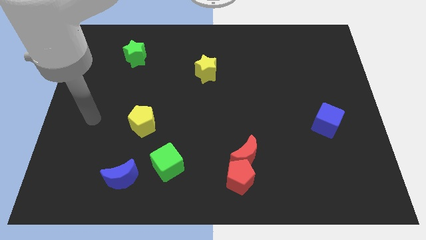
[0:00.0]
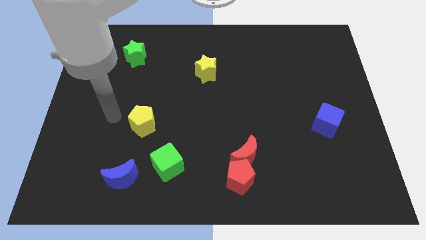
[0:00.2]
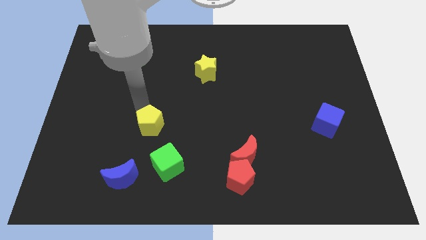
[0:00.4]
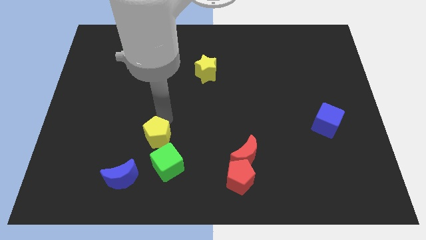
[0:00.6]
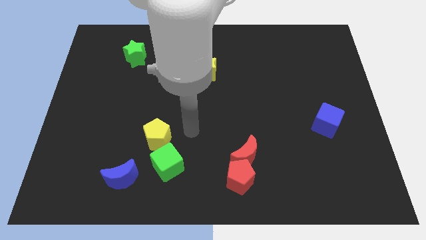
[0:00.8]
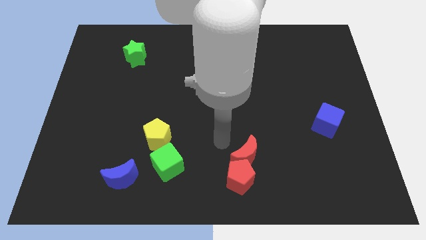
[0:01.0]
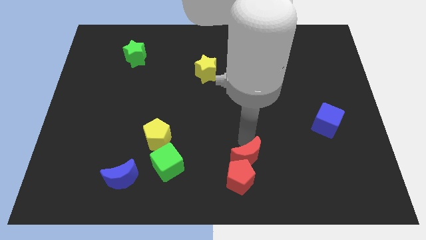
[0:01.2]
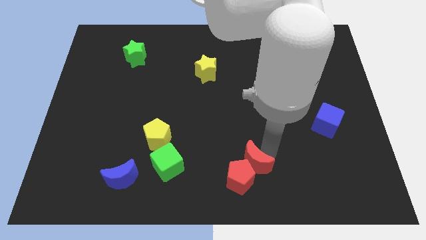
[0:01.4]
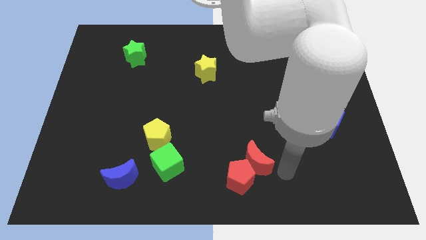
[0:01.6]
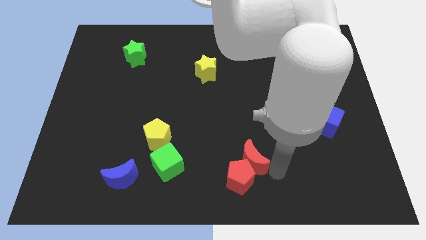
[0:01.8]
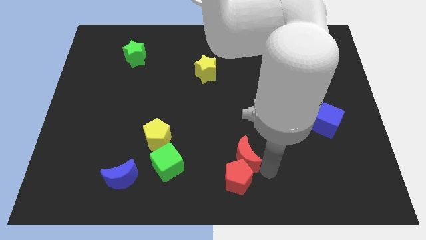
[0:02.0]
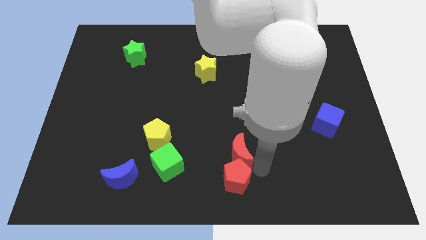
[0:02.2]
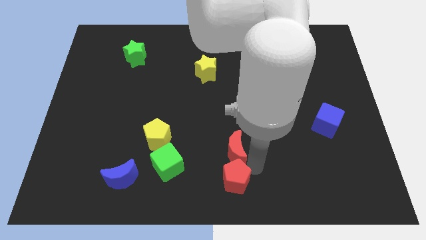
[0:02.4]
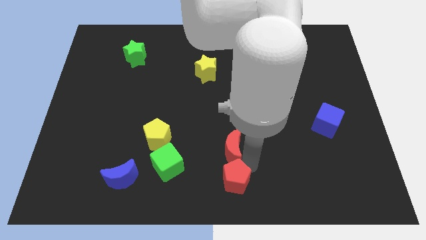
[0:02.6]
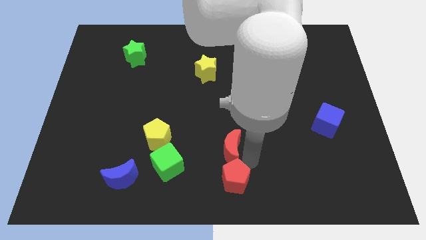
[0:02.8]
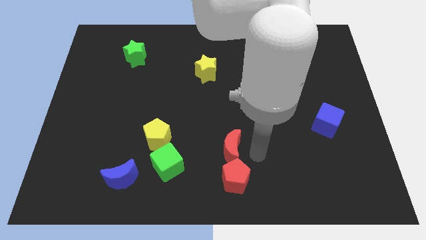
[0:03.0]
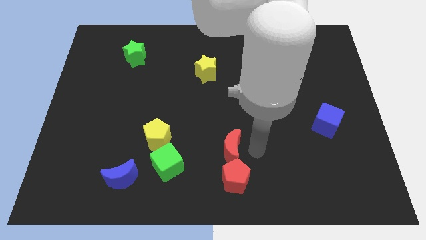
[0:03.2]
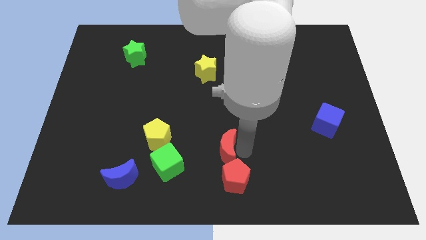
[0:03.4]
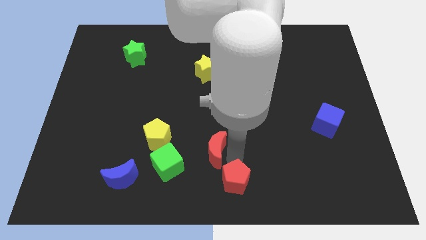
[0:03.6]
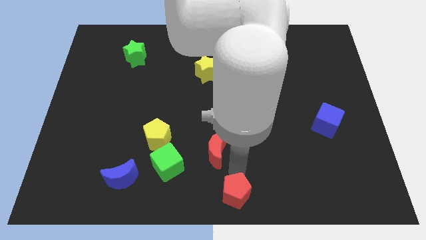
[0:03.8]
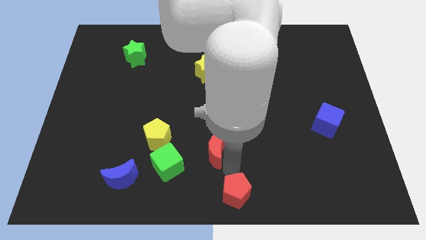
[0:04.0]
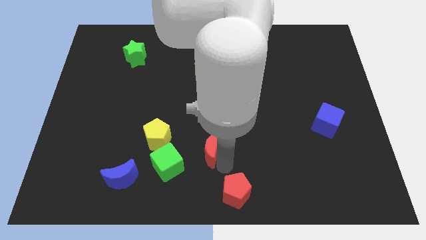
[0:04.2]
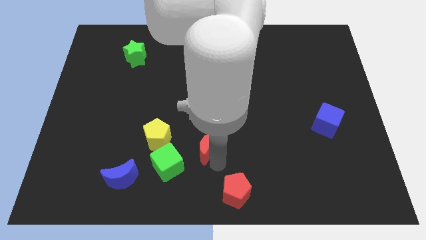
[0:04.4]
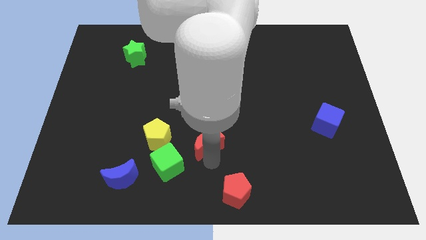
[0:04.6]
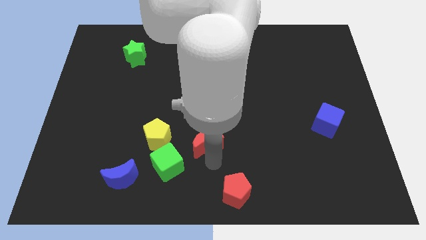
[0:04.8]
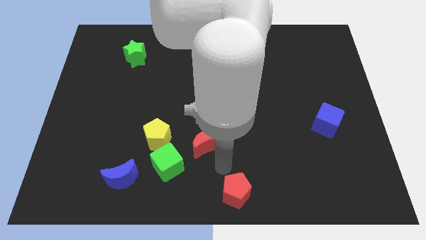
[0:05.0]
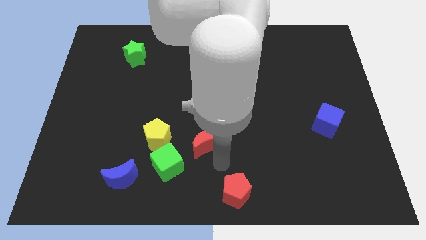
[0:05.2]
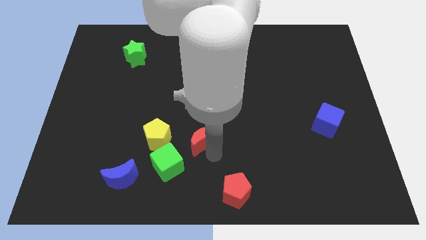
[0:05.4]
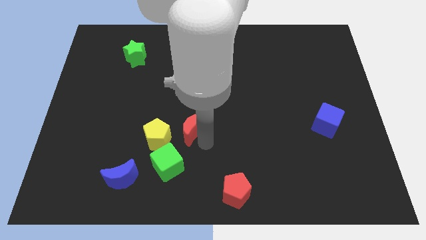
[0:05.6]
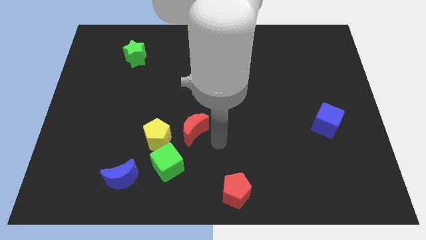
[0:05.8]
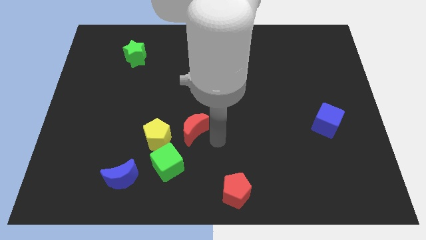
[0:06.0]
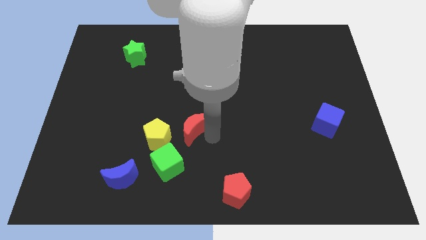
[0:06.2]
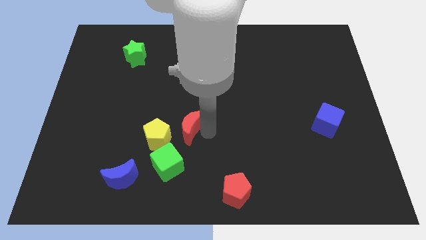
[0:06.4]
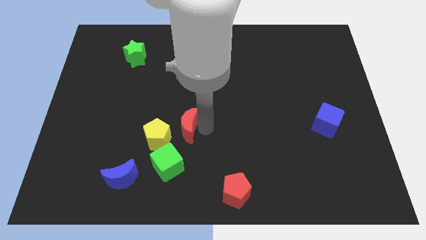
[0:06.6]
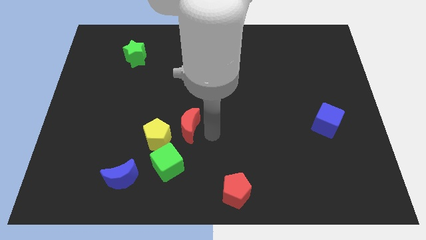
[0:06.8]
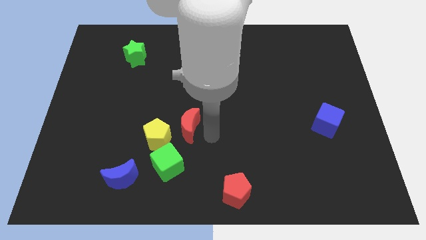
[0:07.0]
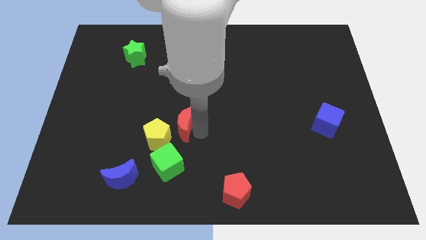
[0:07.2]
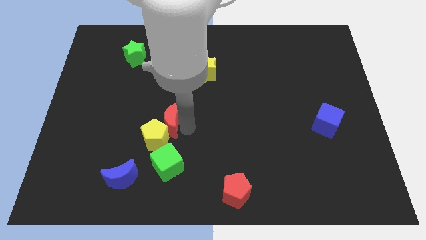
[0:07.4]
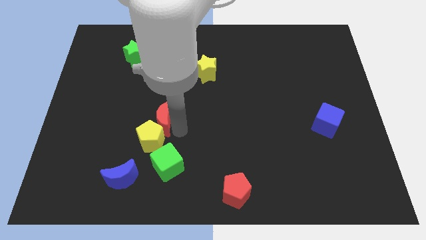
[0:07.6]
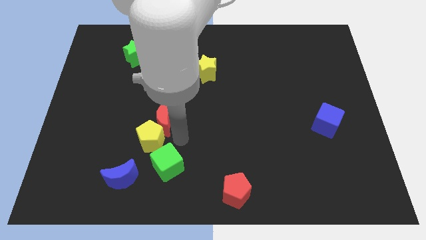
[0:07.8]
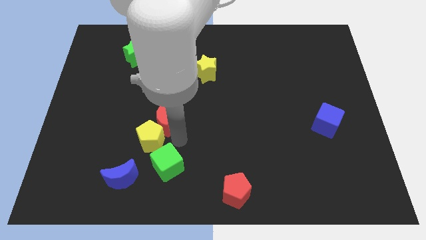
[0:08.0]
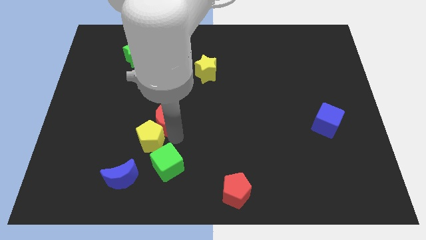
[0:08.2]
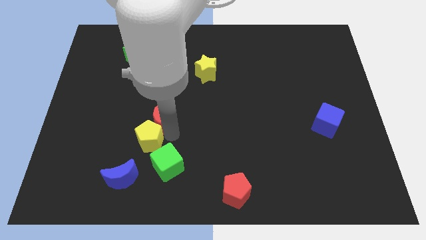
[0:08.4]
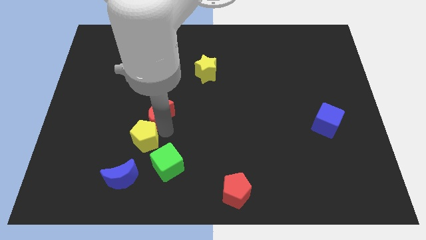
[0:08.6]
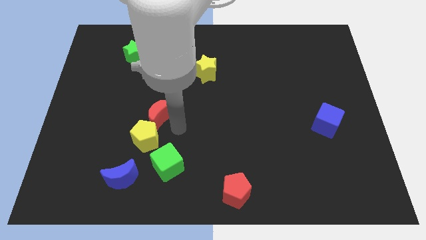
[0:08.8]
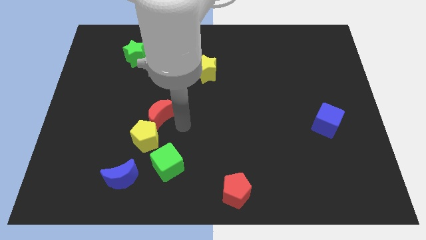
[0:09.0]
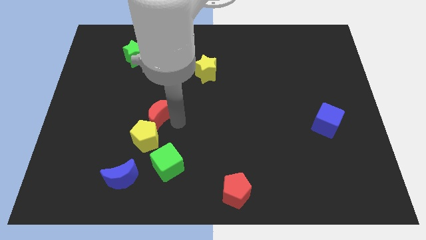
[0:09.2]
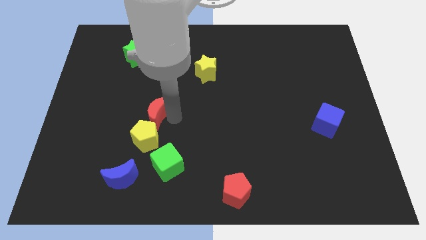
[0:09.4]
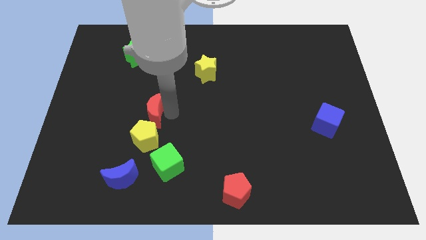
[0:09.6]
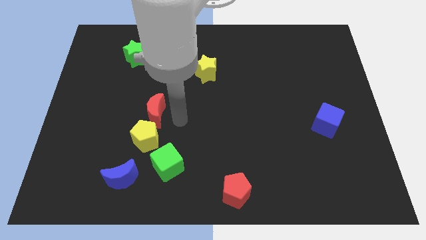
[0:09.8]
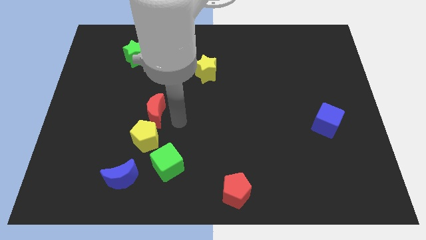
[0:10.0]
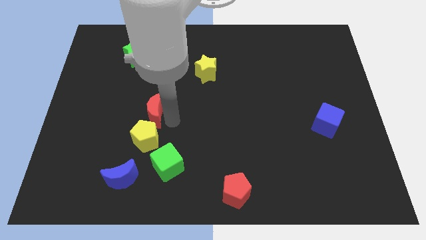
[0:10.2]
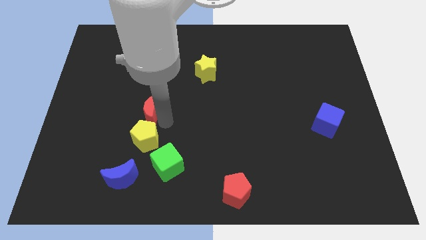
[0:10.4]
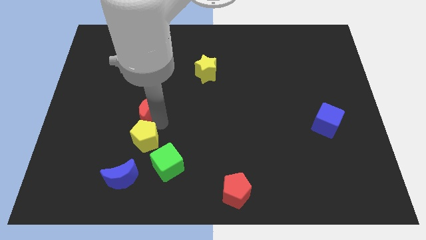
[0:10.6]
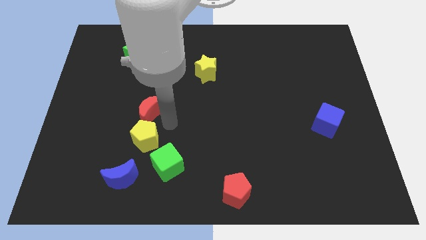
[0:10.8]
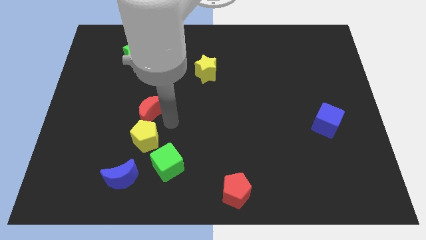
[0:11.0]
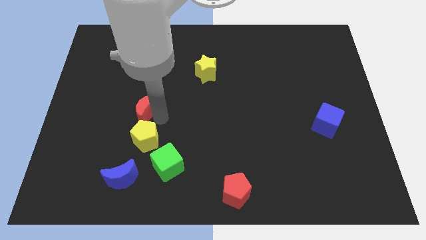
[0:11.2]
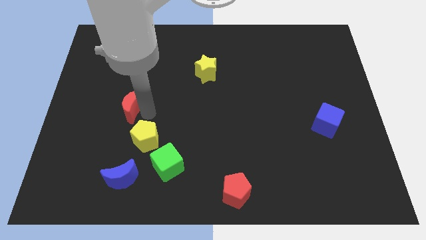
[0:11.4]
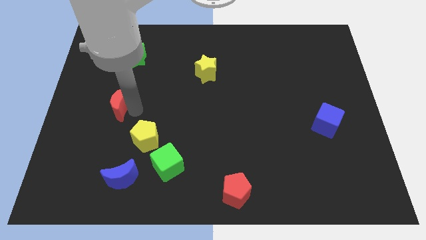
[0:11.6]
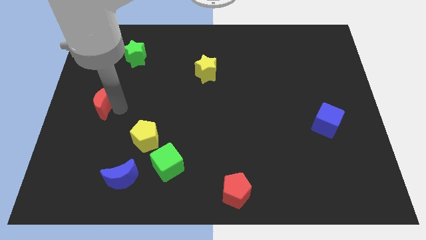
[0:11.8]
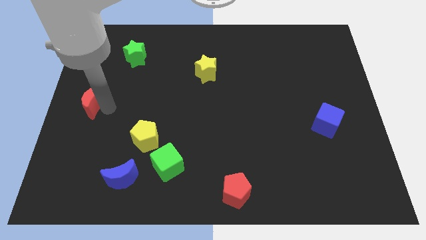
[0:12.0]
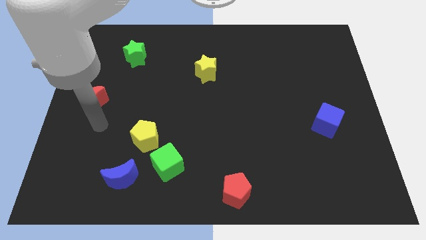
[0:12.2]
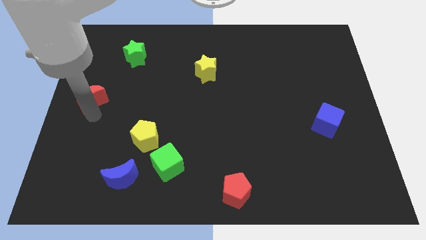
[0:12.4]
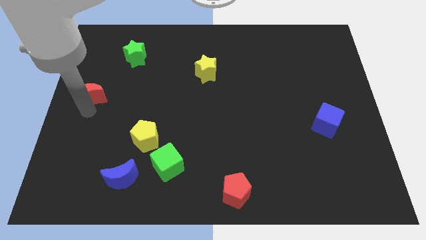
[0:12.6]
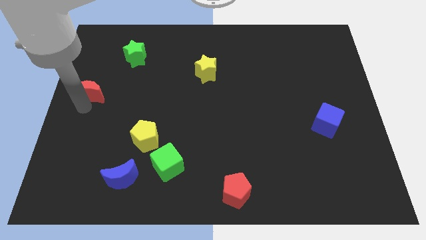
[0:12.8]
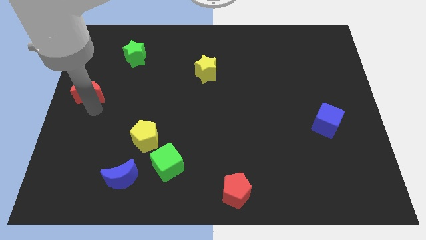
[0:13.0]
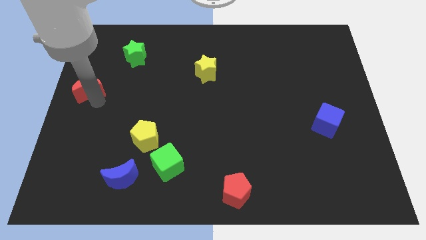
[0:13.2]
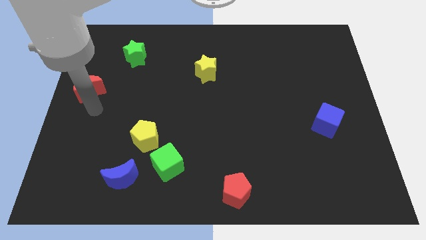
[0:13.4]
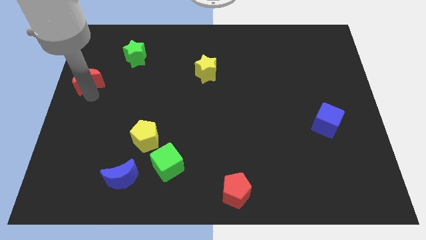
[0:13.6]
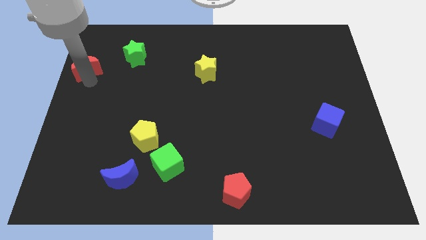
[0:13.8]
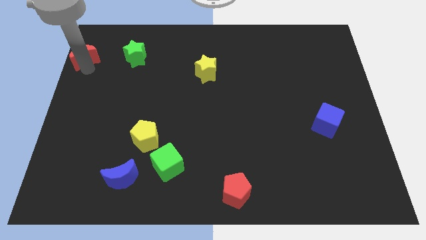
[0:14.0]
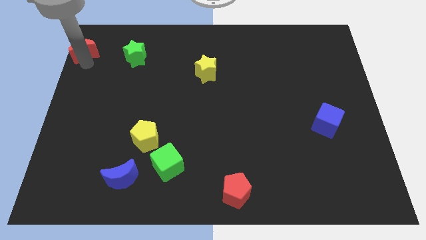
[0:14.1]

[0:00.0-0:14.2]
slide the red moon to the top left corner
